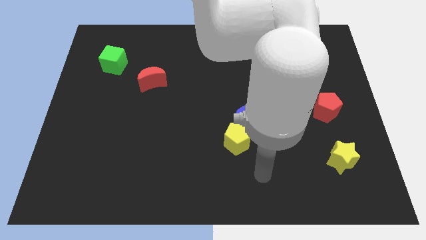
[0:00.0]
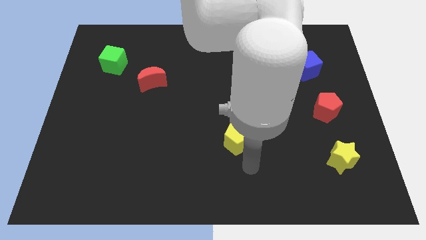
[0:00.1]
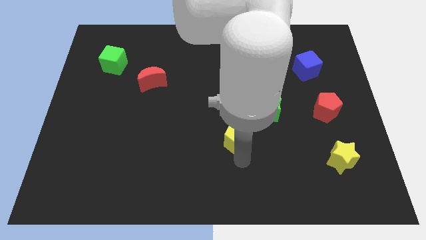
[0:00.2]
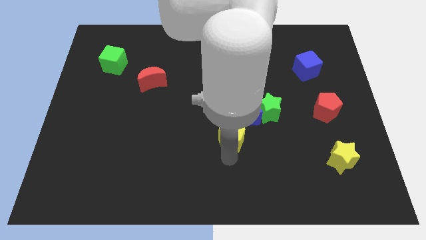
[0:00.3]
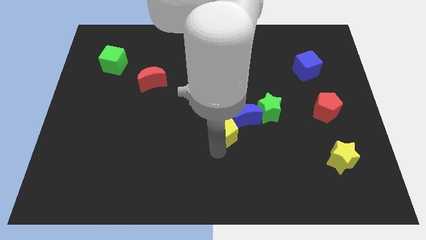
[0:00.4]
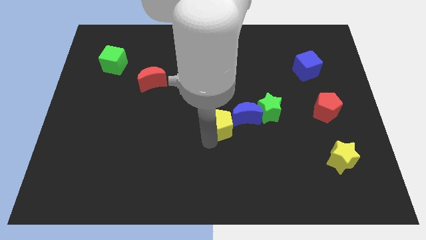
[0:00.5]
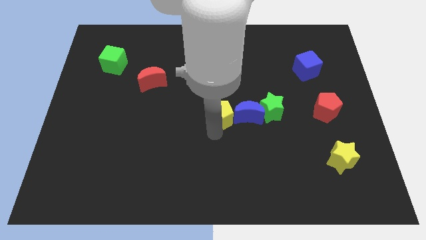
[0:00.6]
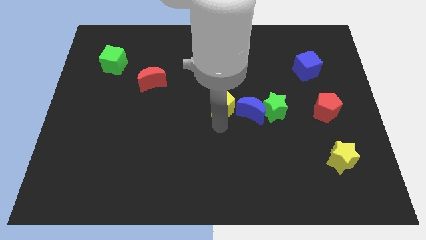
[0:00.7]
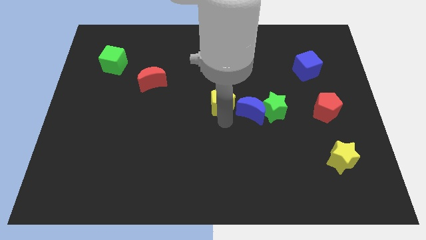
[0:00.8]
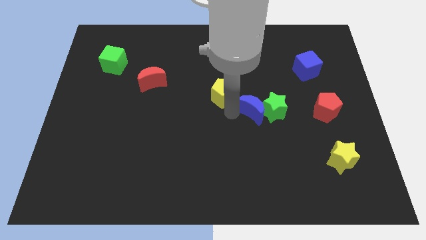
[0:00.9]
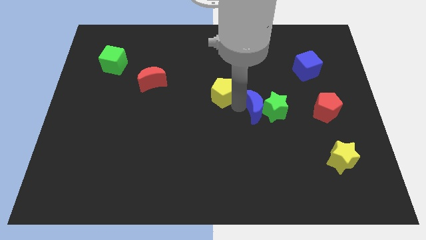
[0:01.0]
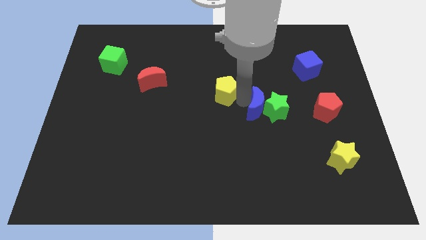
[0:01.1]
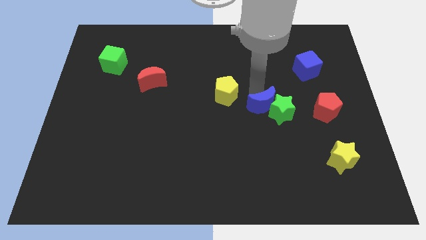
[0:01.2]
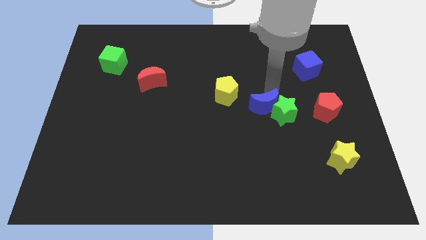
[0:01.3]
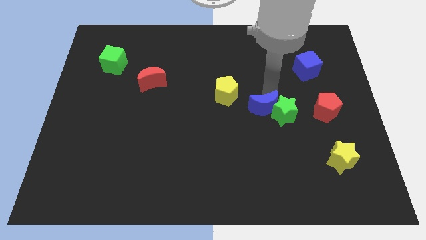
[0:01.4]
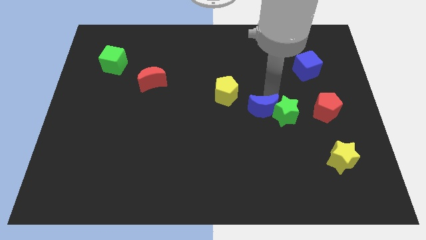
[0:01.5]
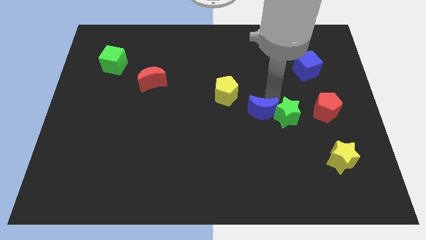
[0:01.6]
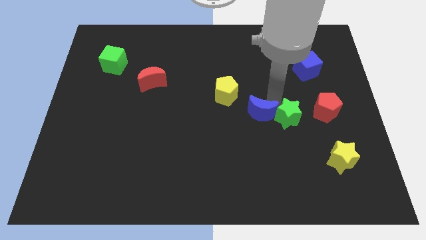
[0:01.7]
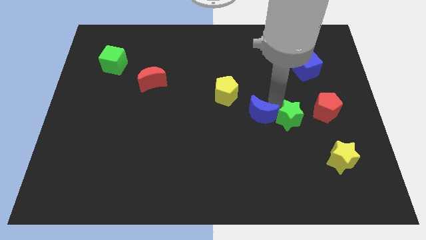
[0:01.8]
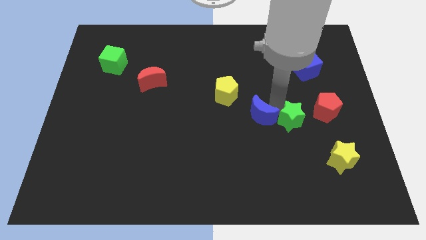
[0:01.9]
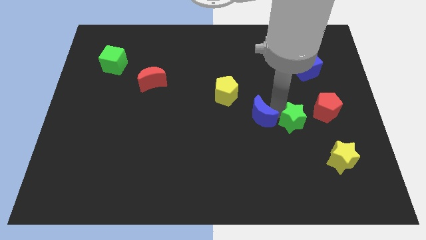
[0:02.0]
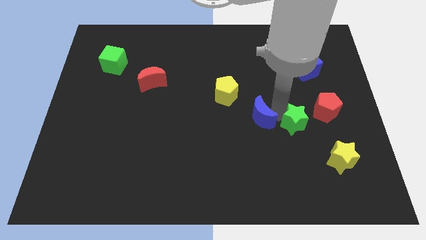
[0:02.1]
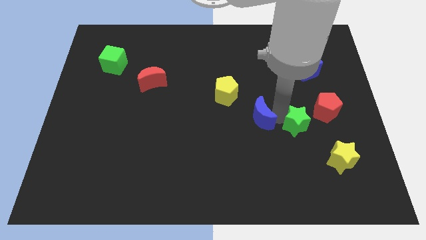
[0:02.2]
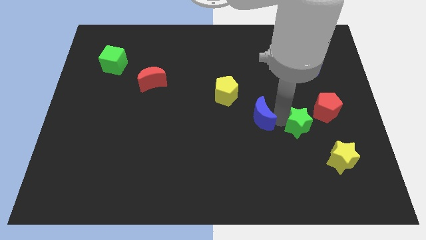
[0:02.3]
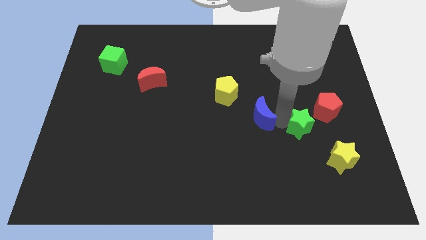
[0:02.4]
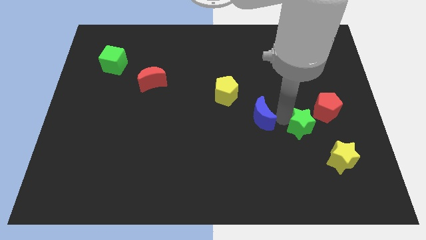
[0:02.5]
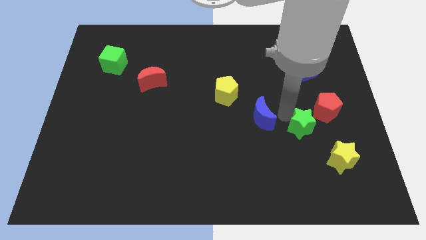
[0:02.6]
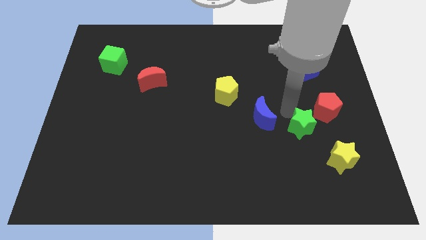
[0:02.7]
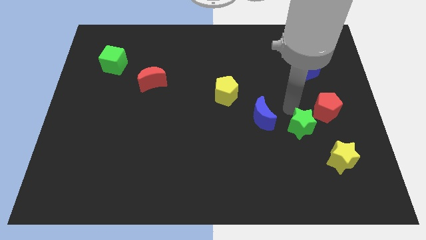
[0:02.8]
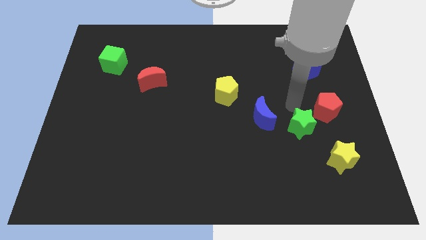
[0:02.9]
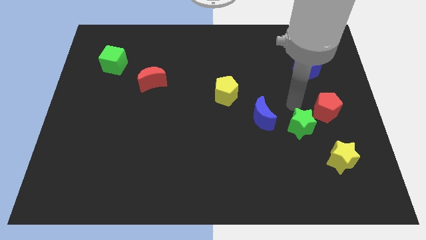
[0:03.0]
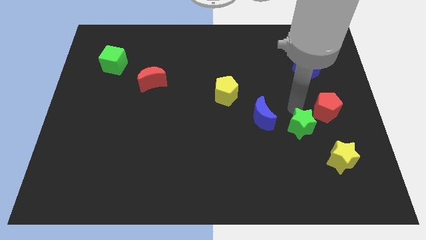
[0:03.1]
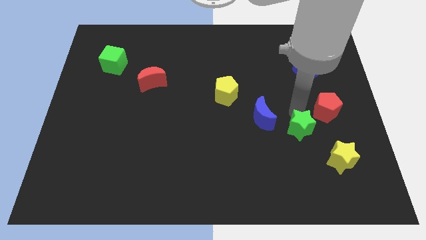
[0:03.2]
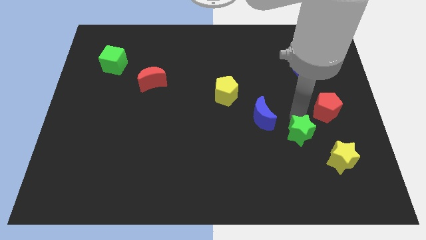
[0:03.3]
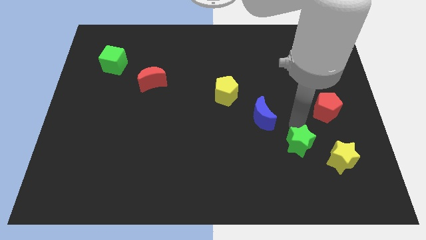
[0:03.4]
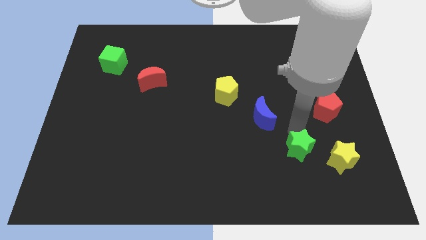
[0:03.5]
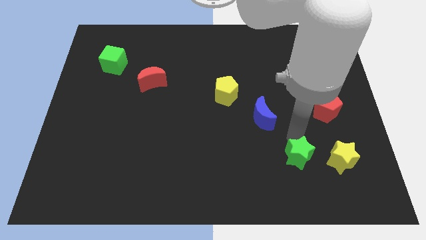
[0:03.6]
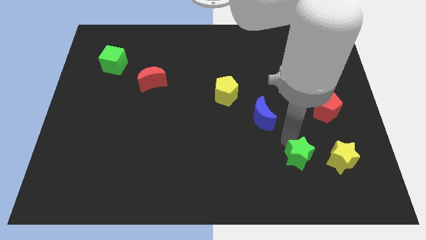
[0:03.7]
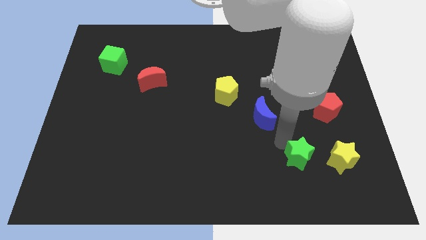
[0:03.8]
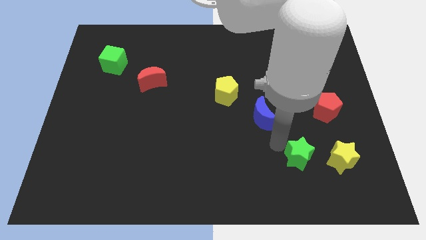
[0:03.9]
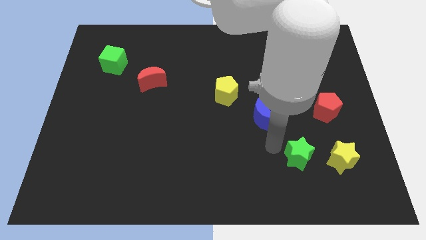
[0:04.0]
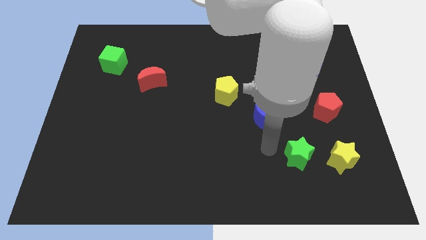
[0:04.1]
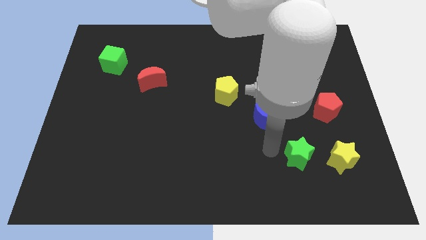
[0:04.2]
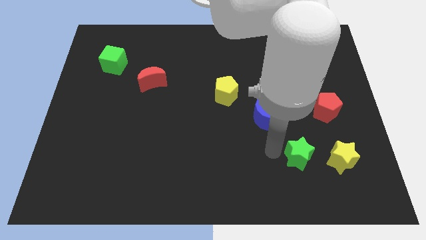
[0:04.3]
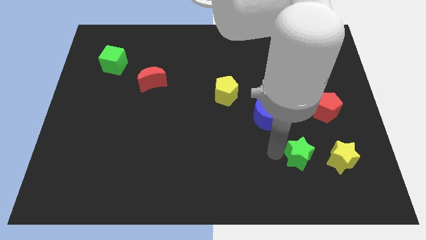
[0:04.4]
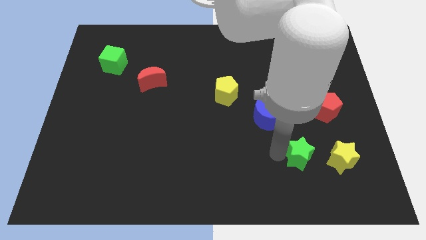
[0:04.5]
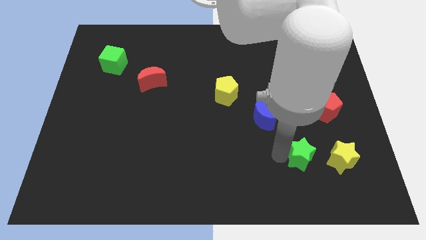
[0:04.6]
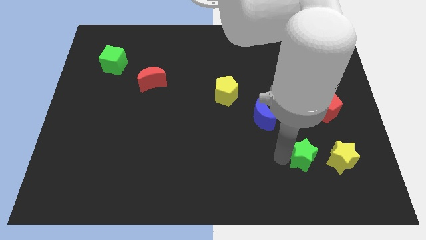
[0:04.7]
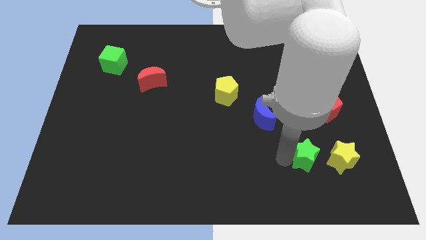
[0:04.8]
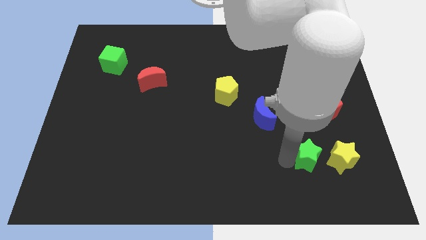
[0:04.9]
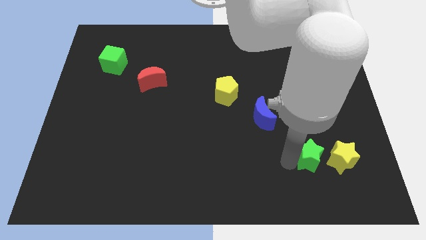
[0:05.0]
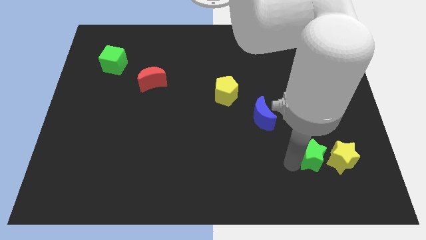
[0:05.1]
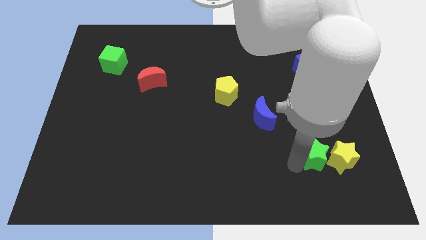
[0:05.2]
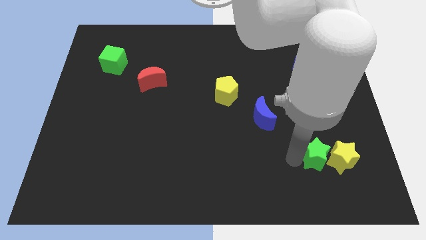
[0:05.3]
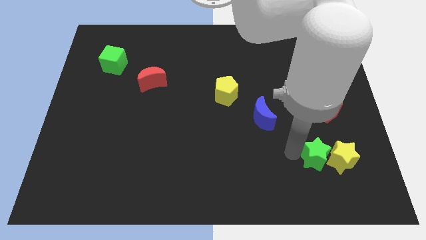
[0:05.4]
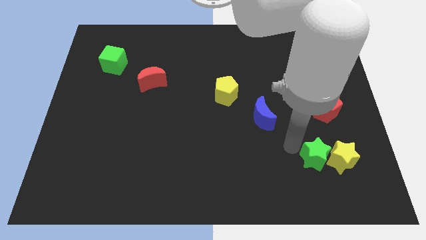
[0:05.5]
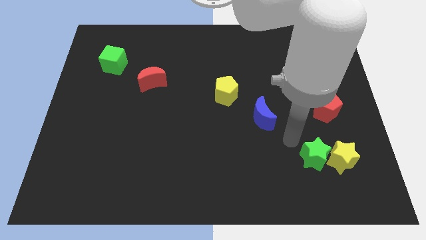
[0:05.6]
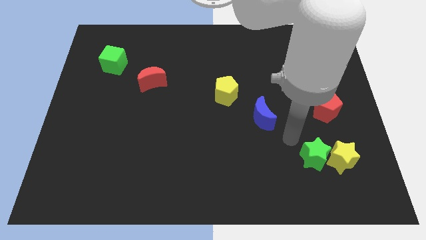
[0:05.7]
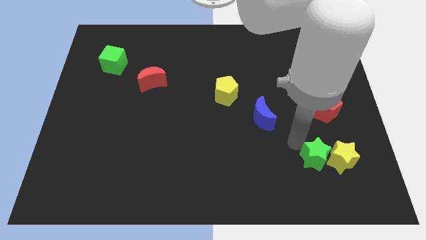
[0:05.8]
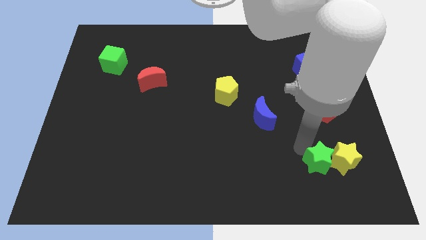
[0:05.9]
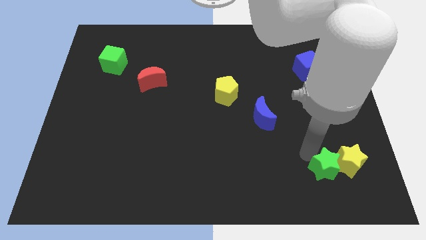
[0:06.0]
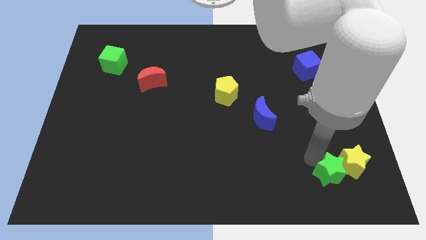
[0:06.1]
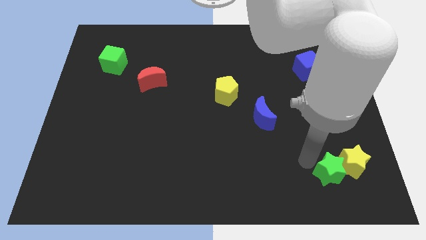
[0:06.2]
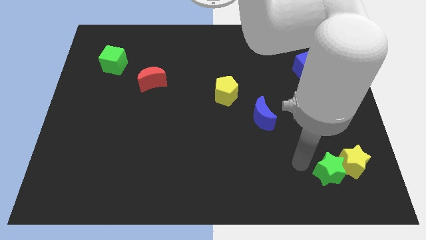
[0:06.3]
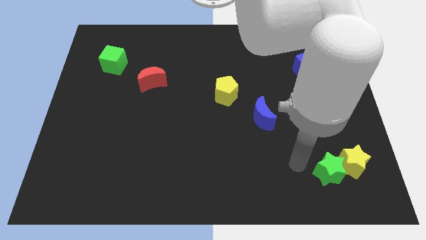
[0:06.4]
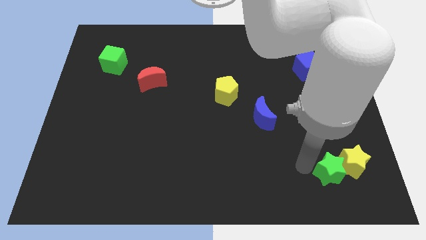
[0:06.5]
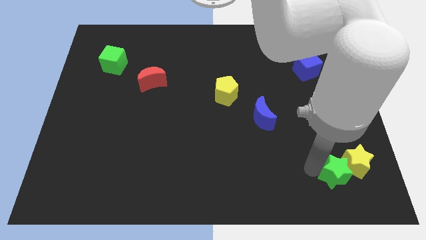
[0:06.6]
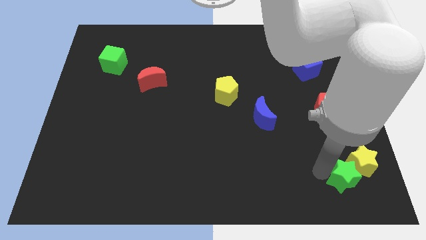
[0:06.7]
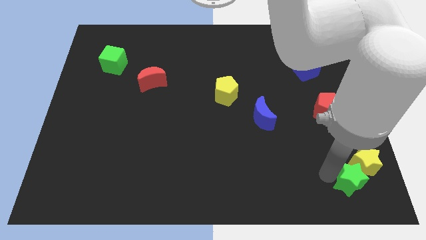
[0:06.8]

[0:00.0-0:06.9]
put the green star to the bottom right corner
